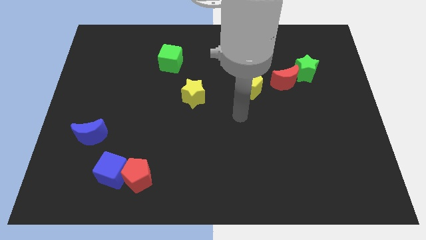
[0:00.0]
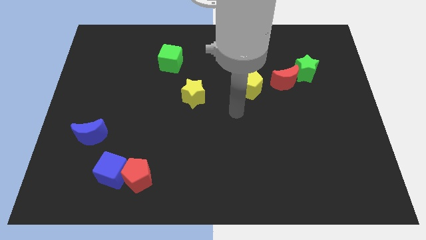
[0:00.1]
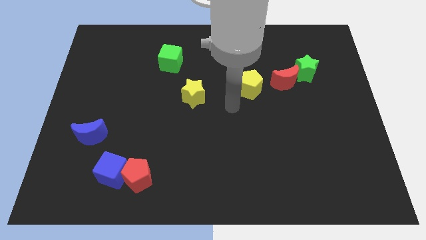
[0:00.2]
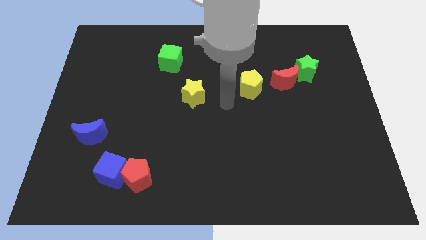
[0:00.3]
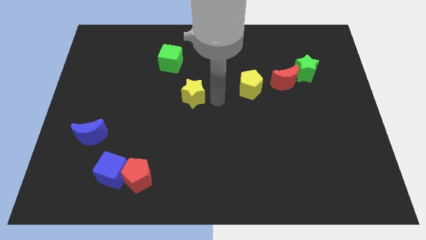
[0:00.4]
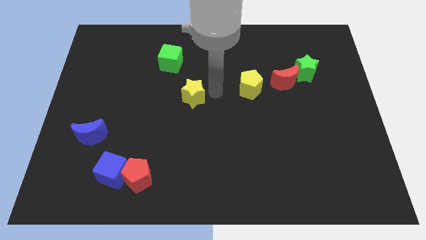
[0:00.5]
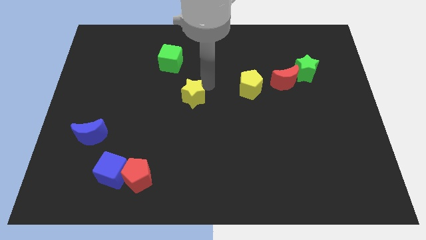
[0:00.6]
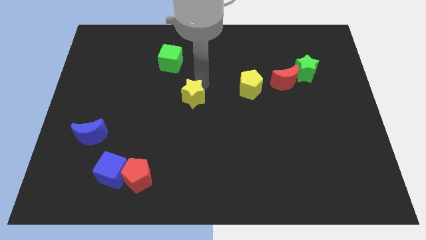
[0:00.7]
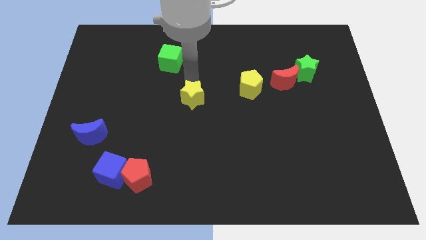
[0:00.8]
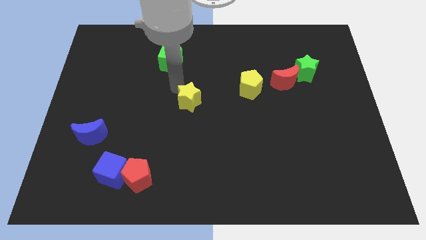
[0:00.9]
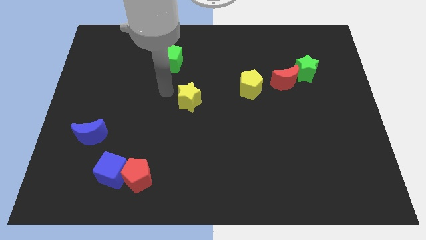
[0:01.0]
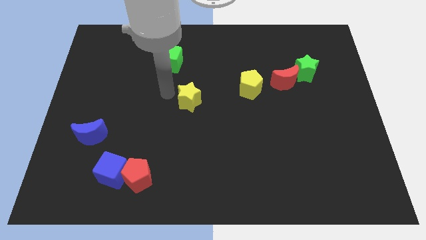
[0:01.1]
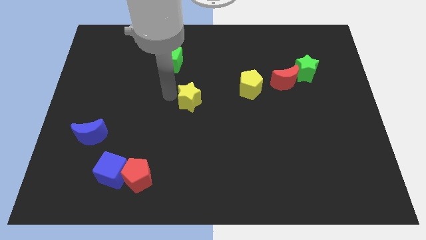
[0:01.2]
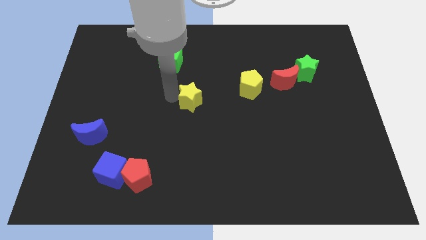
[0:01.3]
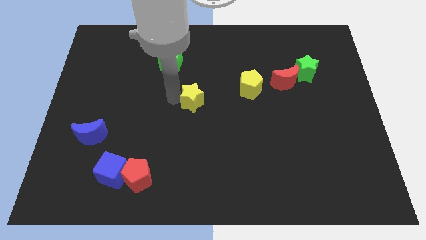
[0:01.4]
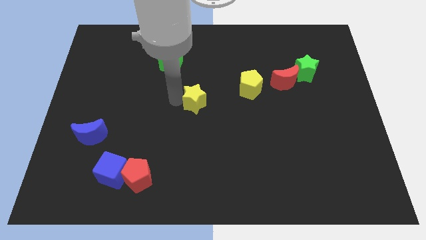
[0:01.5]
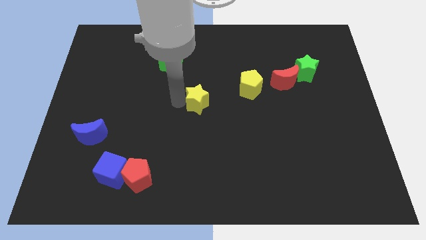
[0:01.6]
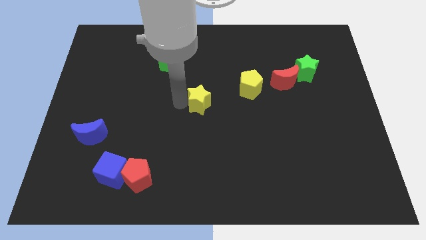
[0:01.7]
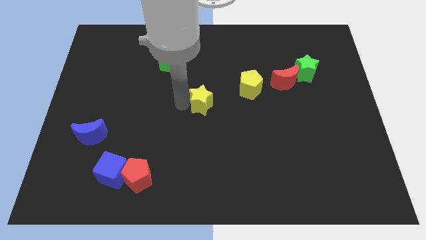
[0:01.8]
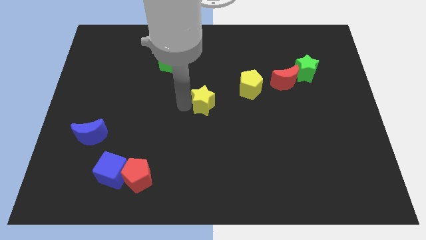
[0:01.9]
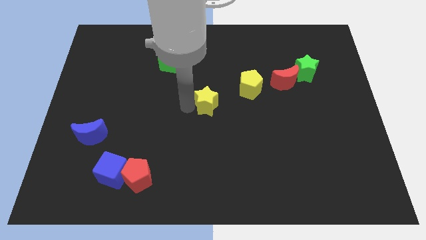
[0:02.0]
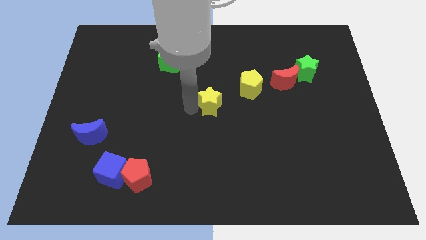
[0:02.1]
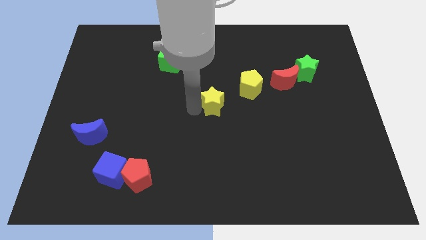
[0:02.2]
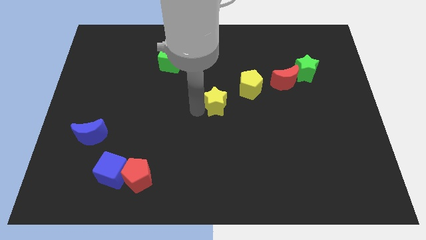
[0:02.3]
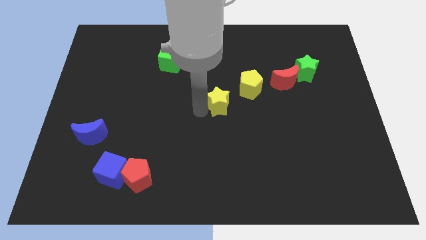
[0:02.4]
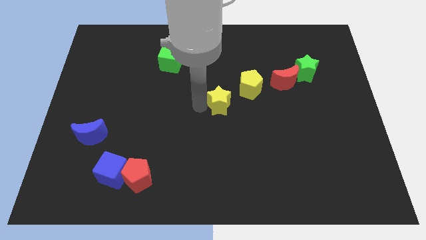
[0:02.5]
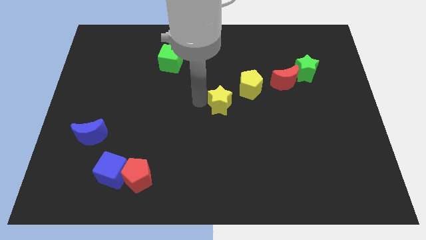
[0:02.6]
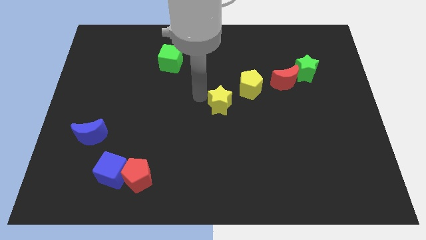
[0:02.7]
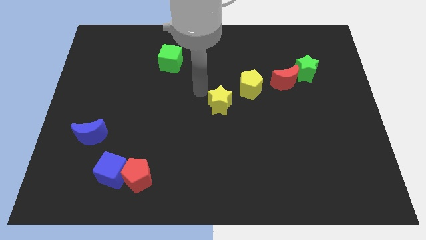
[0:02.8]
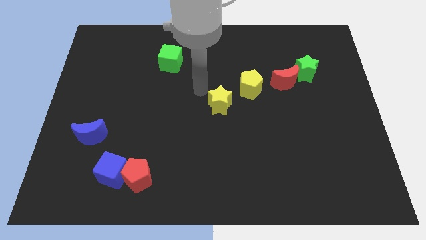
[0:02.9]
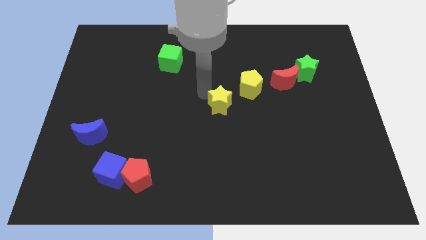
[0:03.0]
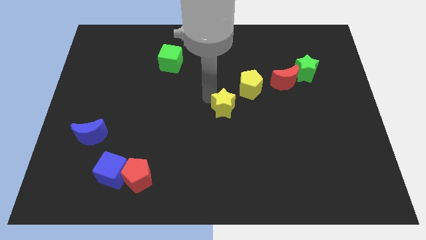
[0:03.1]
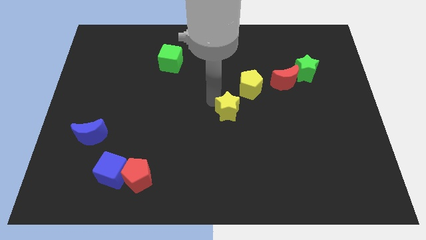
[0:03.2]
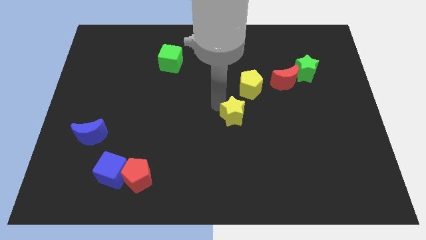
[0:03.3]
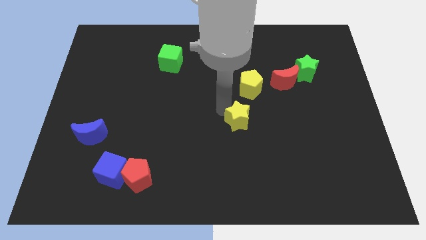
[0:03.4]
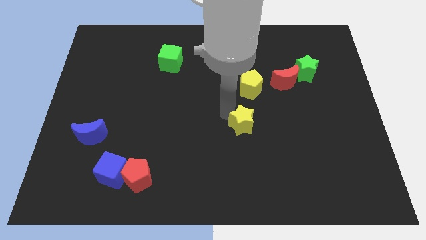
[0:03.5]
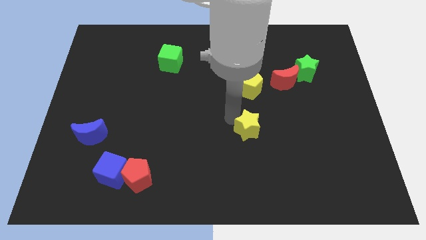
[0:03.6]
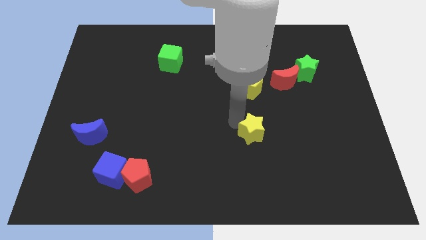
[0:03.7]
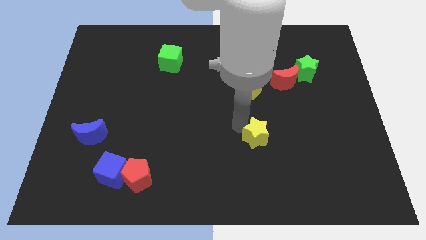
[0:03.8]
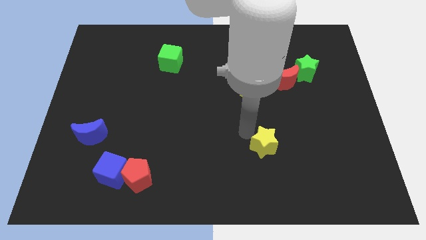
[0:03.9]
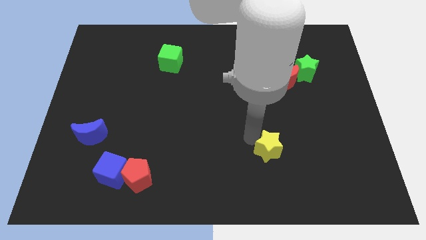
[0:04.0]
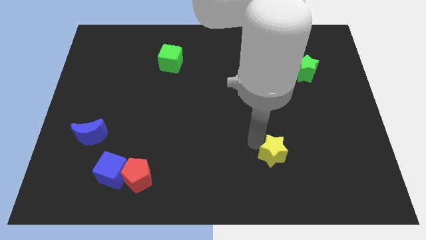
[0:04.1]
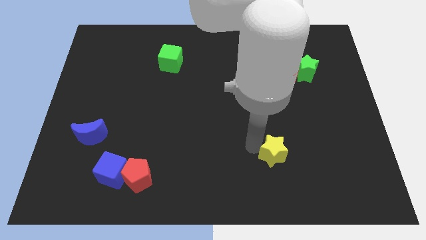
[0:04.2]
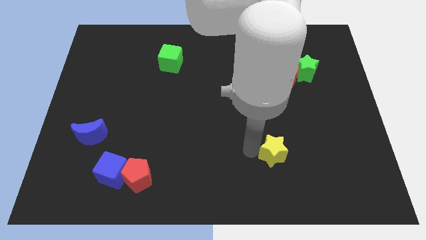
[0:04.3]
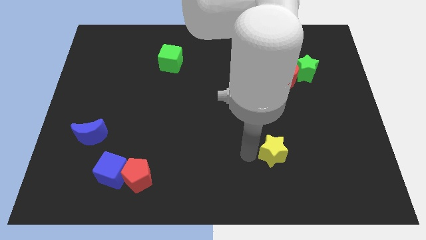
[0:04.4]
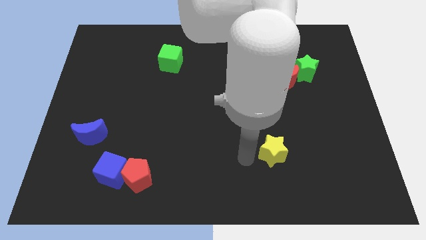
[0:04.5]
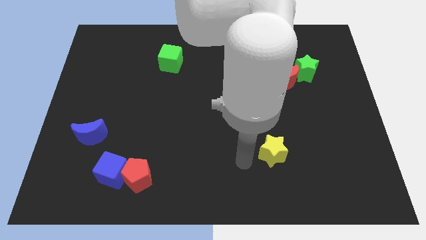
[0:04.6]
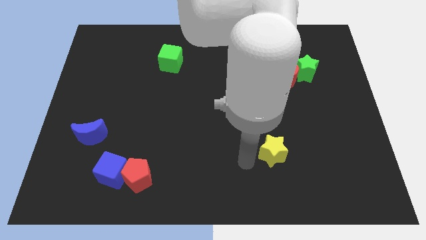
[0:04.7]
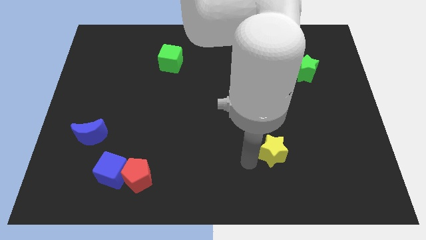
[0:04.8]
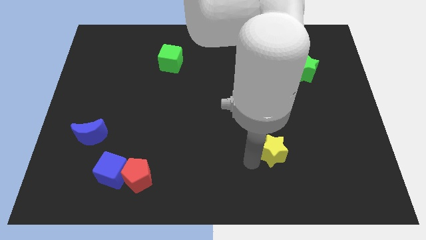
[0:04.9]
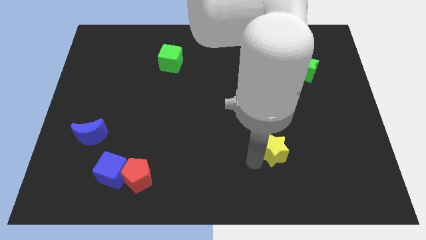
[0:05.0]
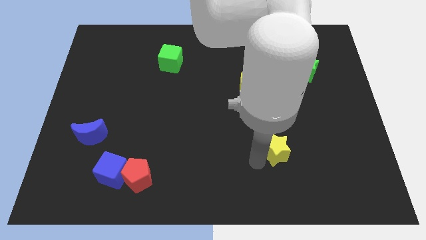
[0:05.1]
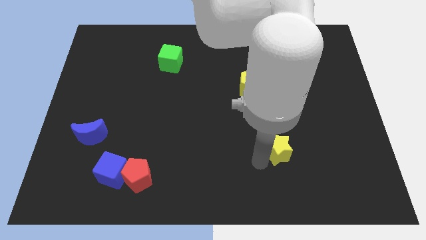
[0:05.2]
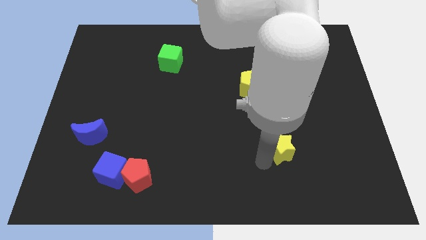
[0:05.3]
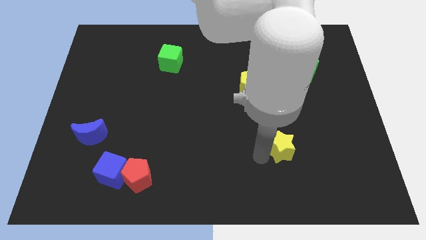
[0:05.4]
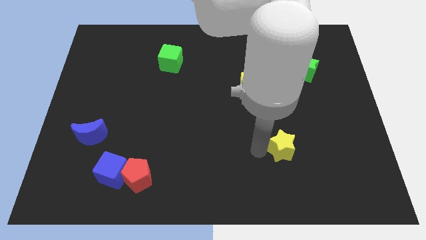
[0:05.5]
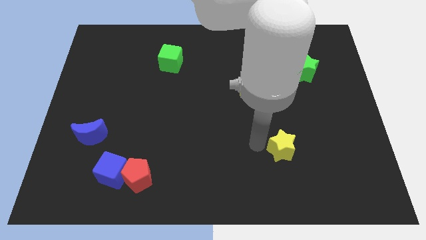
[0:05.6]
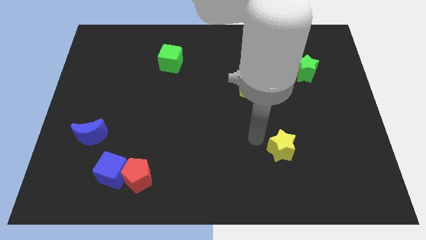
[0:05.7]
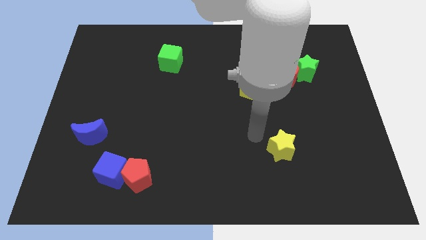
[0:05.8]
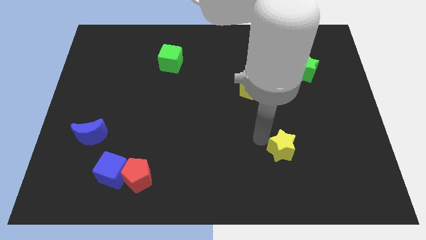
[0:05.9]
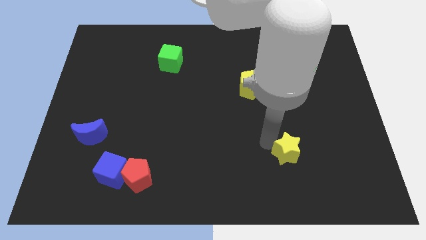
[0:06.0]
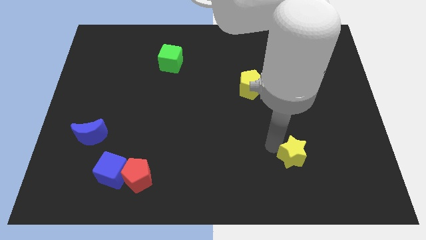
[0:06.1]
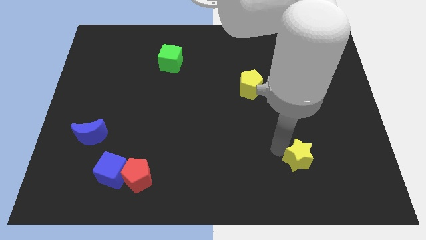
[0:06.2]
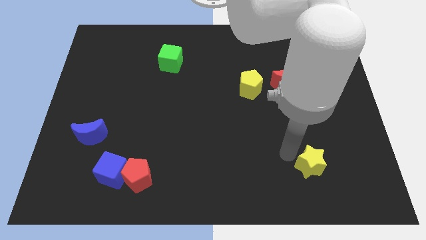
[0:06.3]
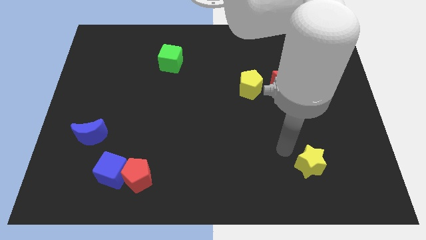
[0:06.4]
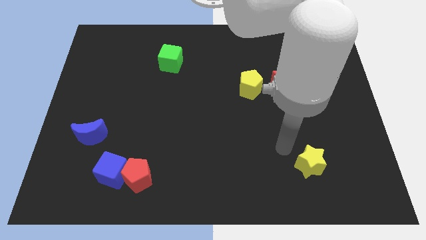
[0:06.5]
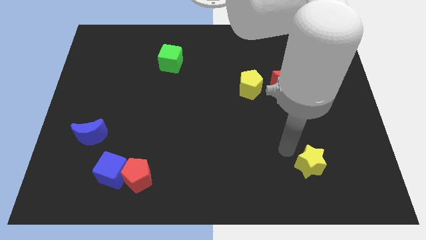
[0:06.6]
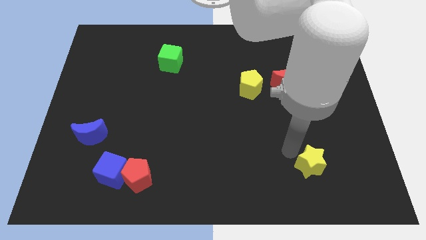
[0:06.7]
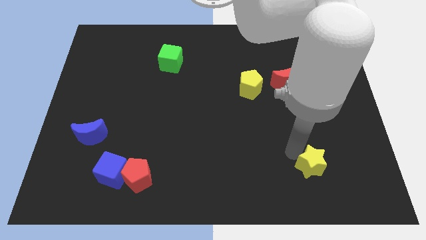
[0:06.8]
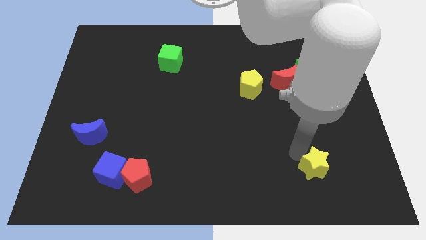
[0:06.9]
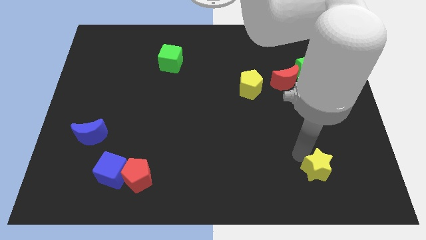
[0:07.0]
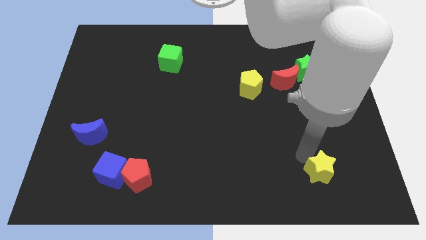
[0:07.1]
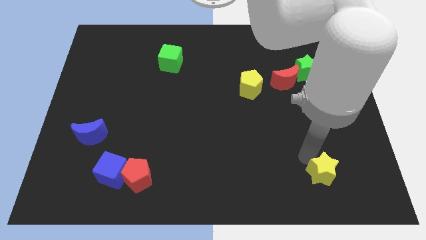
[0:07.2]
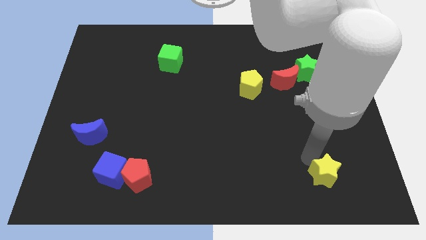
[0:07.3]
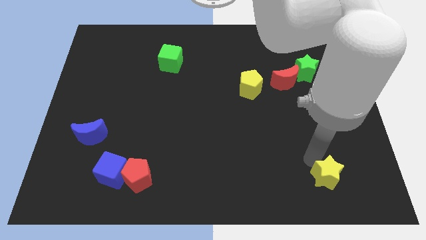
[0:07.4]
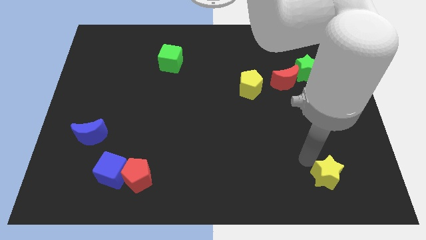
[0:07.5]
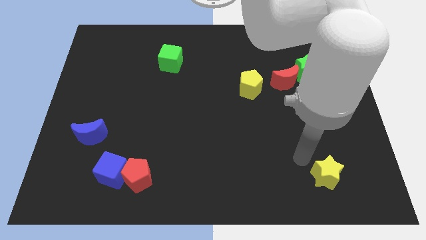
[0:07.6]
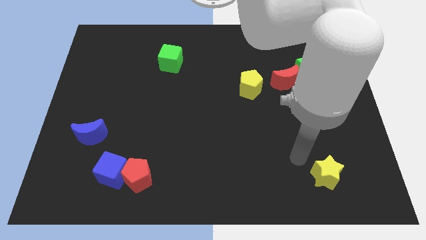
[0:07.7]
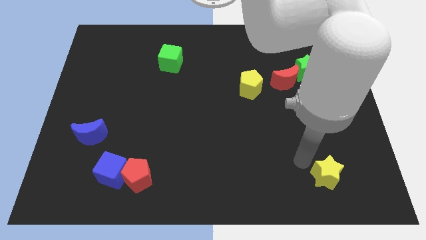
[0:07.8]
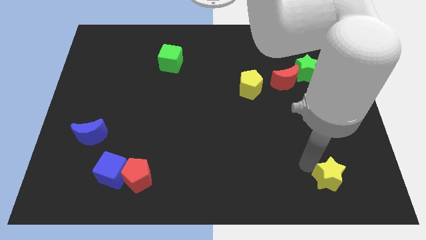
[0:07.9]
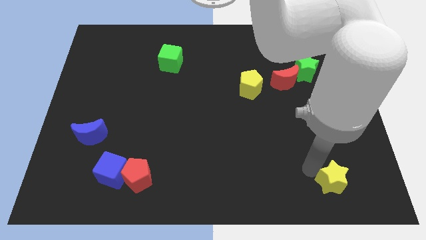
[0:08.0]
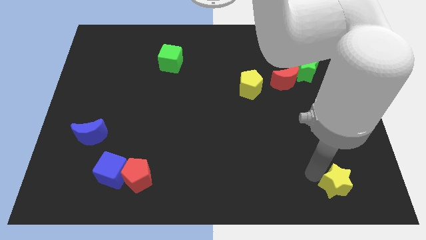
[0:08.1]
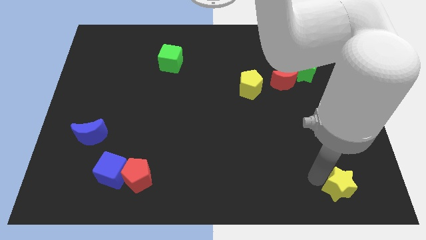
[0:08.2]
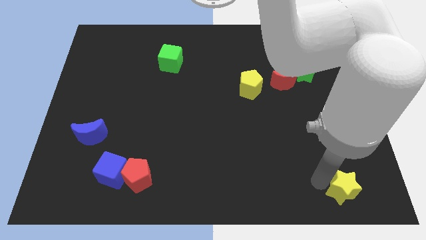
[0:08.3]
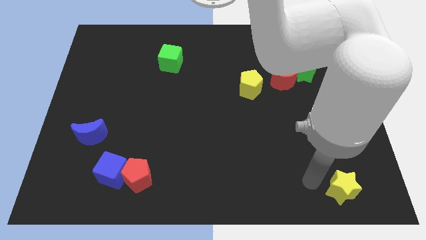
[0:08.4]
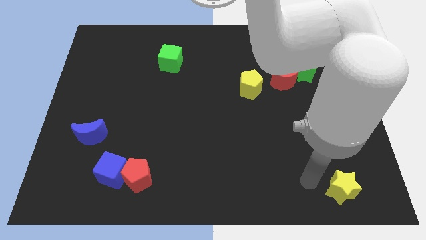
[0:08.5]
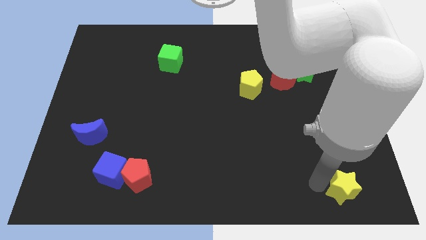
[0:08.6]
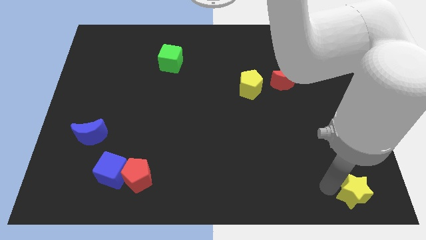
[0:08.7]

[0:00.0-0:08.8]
push the yellow star to the bottom right corner
